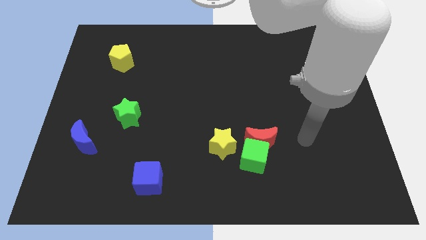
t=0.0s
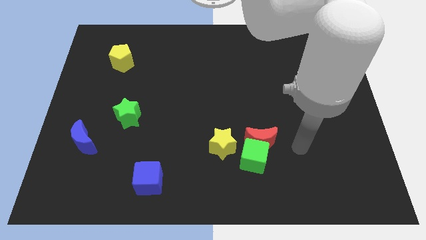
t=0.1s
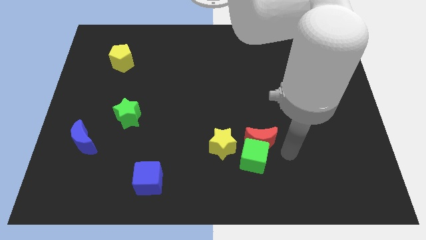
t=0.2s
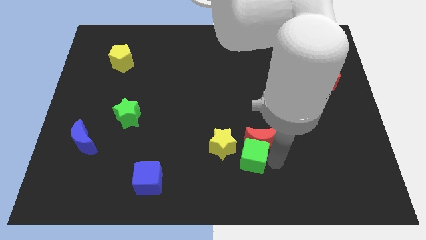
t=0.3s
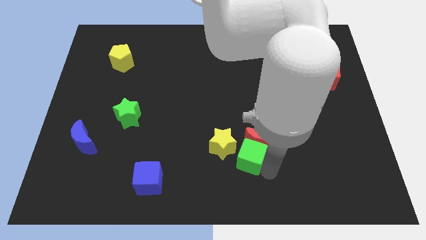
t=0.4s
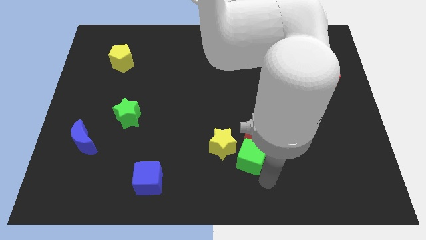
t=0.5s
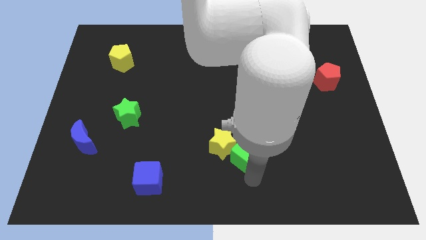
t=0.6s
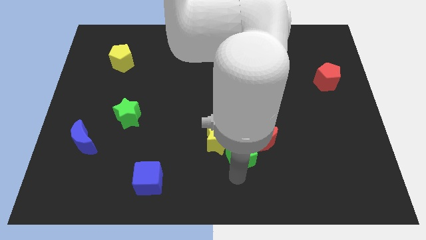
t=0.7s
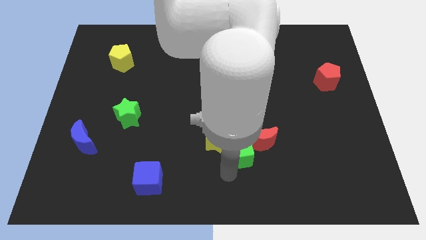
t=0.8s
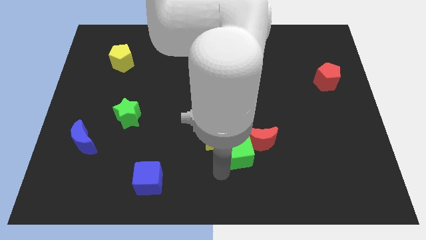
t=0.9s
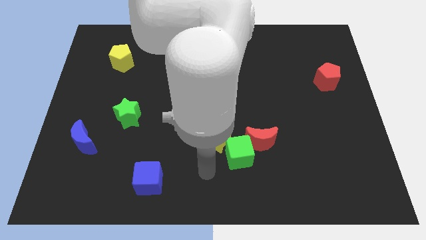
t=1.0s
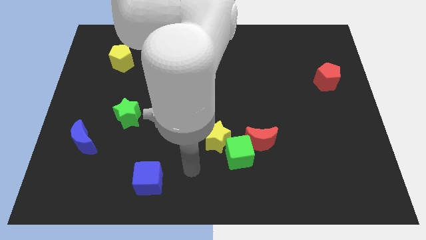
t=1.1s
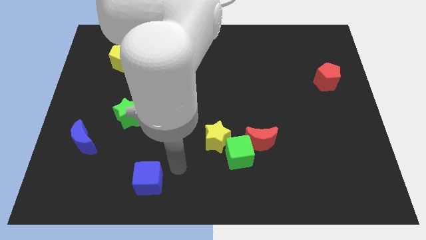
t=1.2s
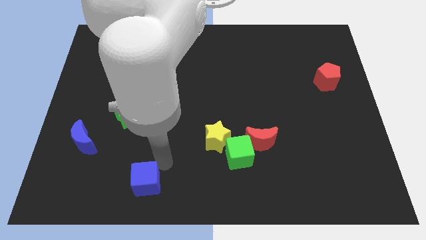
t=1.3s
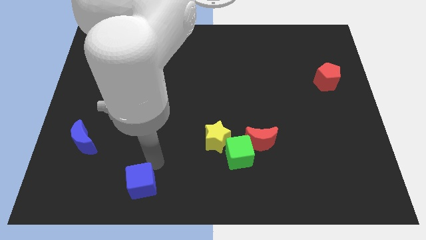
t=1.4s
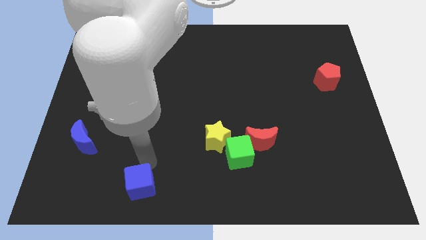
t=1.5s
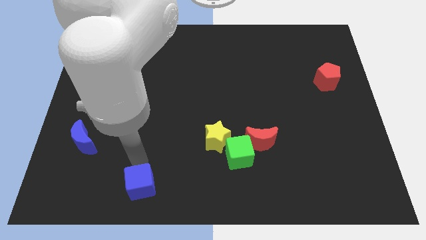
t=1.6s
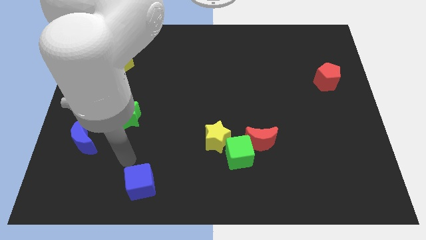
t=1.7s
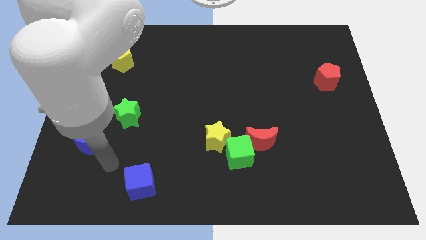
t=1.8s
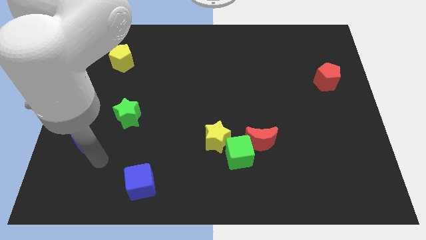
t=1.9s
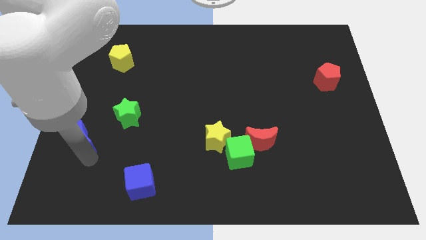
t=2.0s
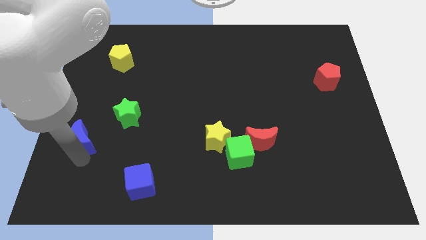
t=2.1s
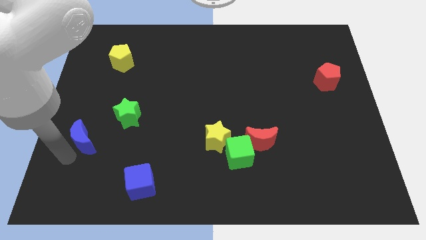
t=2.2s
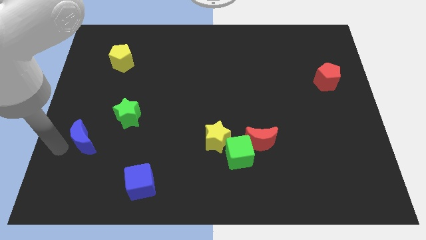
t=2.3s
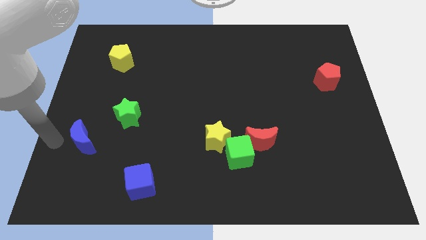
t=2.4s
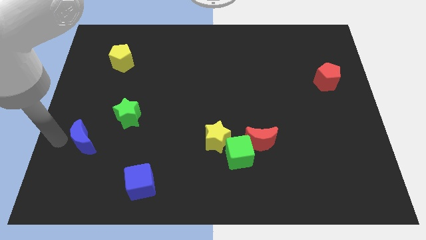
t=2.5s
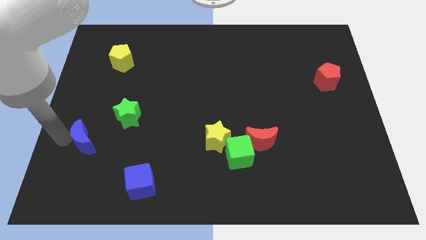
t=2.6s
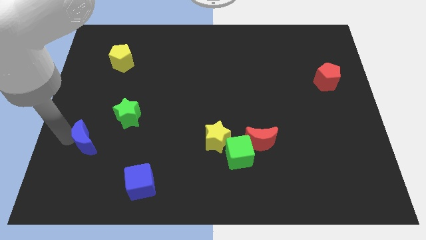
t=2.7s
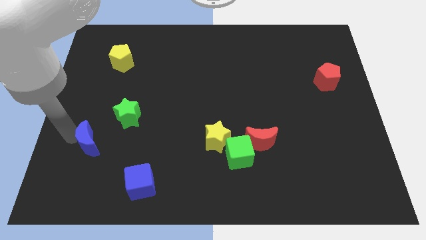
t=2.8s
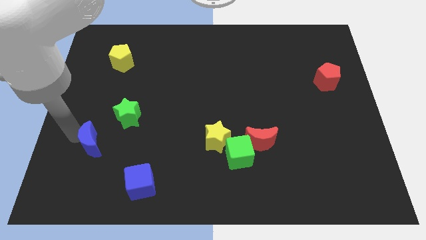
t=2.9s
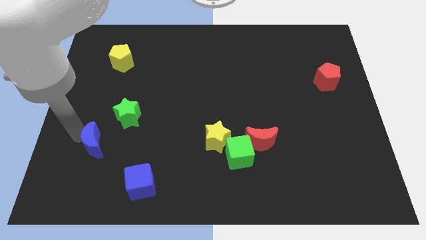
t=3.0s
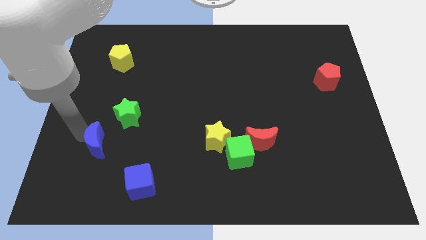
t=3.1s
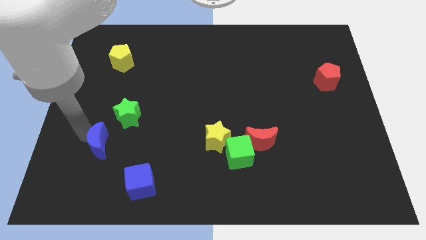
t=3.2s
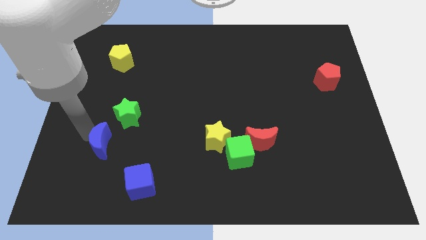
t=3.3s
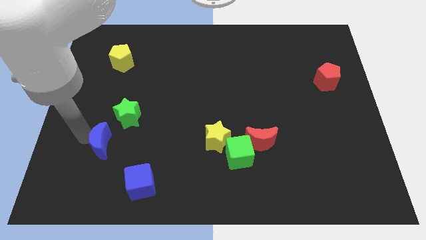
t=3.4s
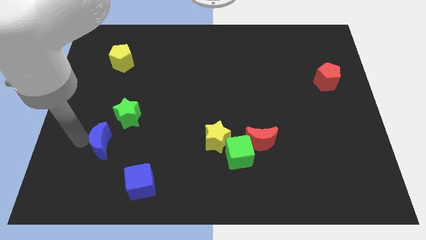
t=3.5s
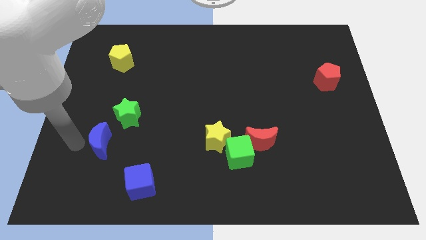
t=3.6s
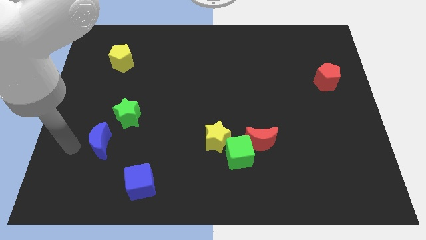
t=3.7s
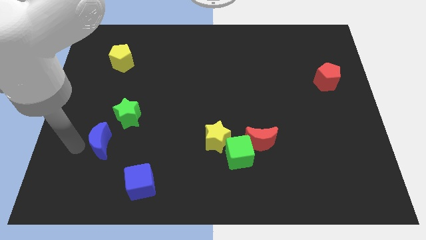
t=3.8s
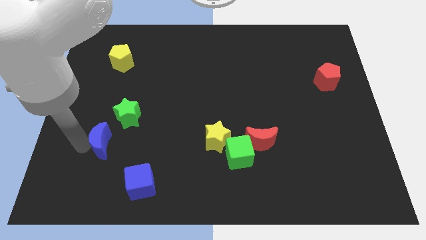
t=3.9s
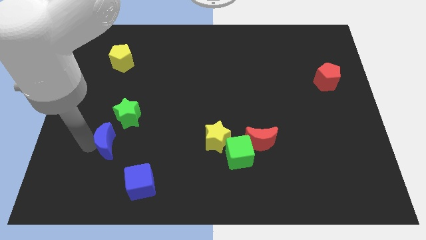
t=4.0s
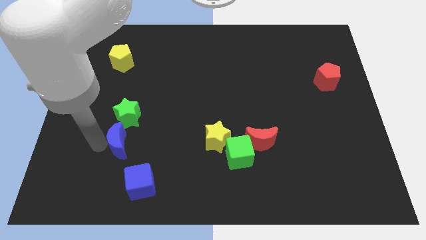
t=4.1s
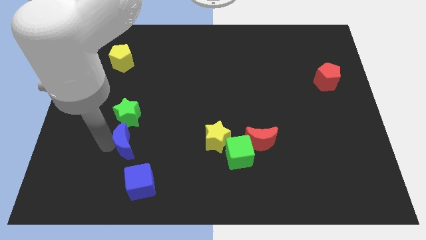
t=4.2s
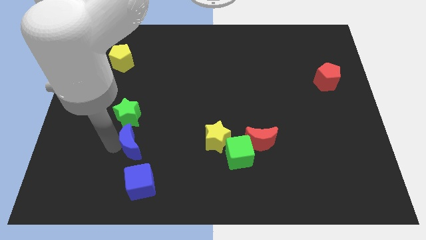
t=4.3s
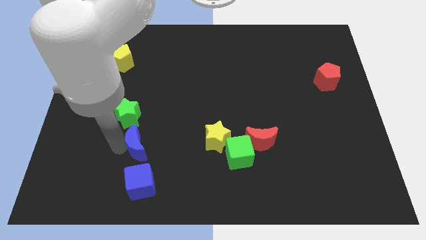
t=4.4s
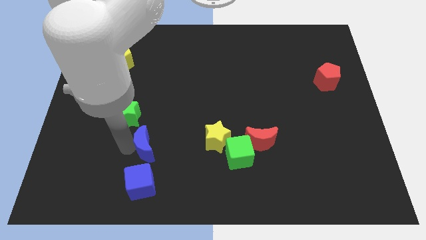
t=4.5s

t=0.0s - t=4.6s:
move the blue moon left of the yellow star

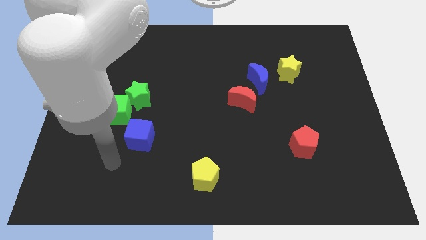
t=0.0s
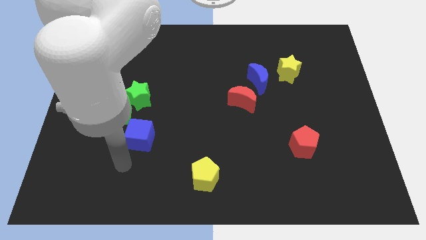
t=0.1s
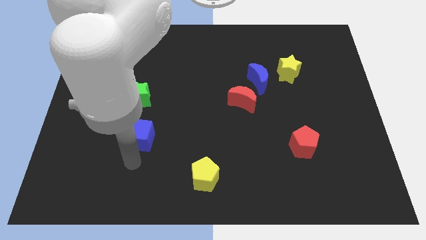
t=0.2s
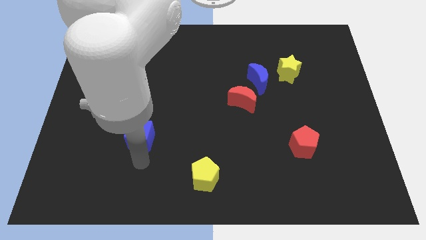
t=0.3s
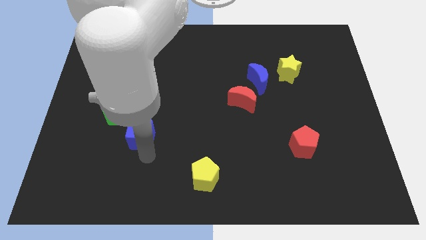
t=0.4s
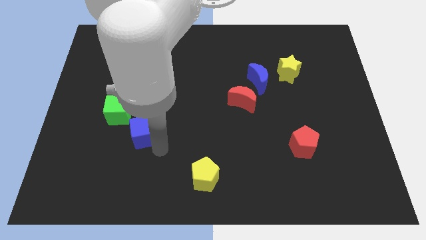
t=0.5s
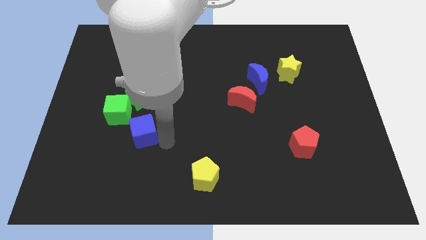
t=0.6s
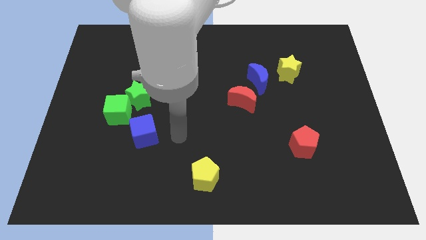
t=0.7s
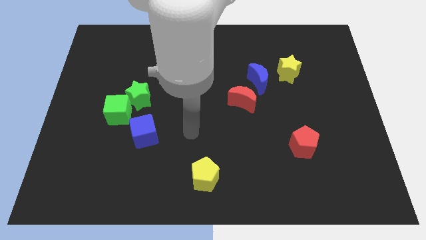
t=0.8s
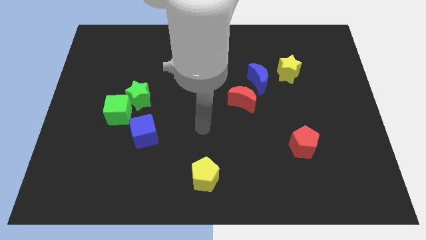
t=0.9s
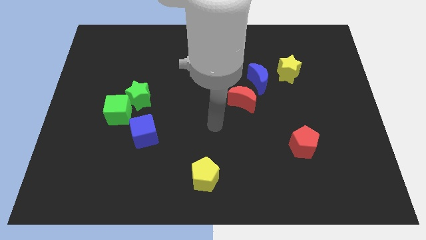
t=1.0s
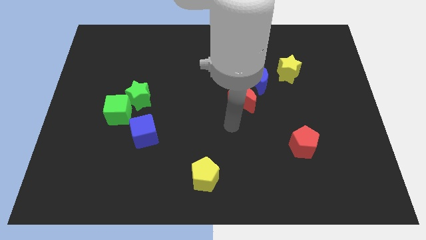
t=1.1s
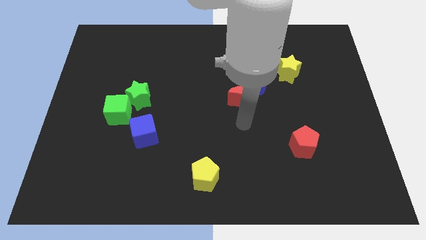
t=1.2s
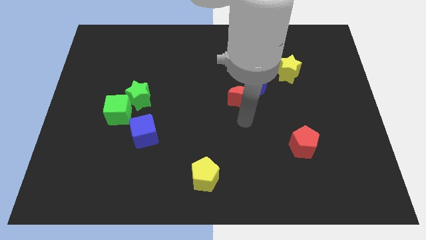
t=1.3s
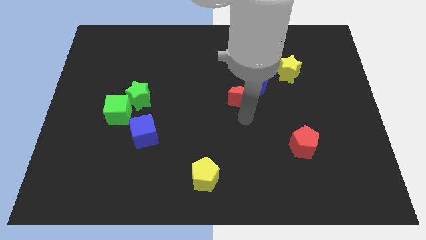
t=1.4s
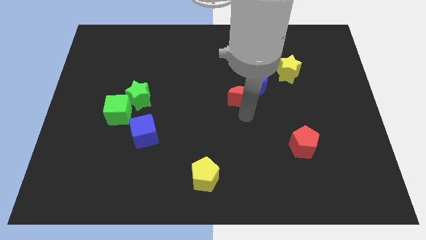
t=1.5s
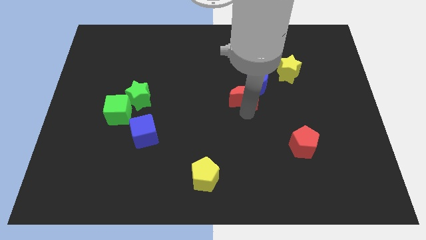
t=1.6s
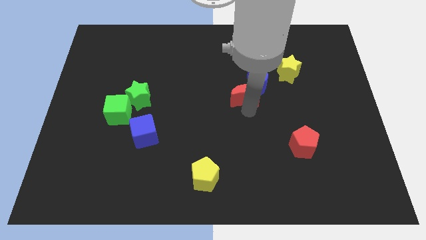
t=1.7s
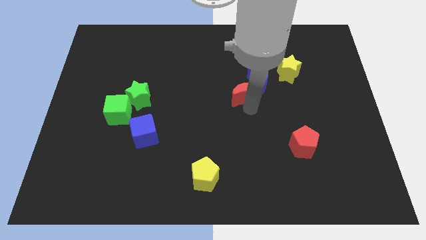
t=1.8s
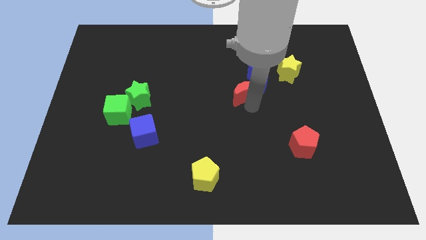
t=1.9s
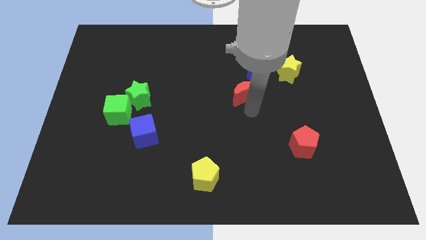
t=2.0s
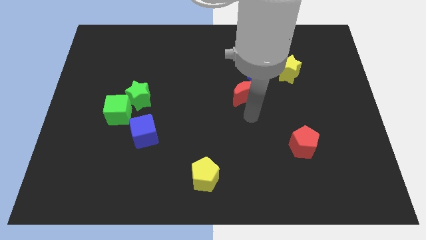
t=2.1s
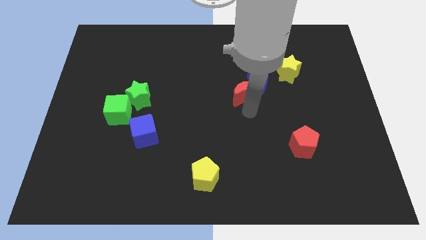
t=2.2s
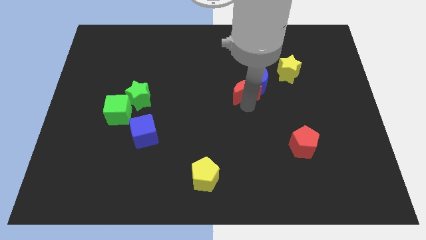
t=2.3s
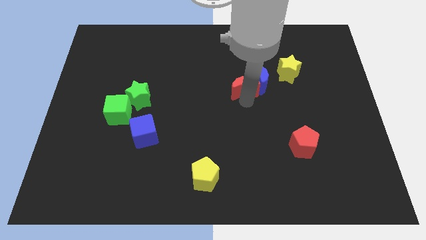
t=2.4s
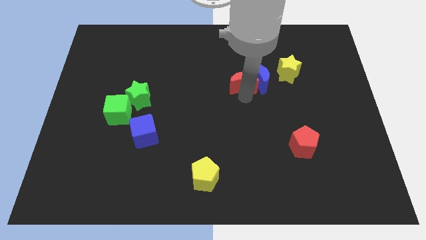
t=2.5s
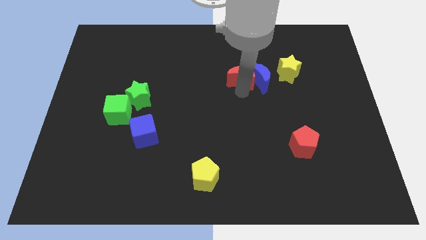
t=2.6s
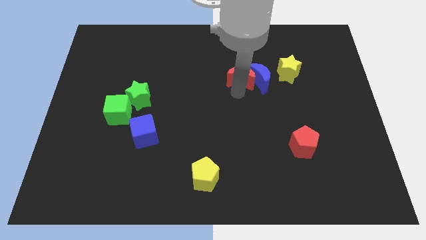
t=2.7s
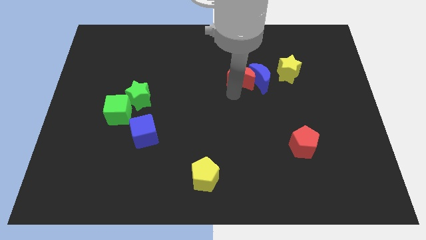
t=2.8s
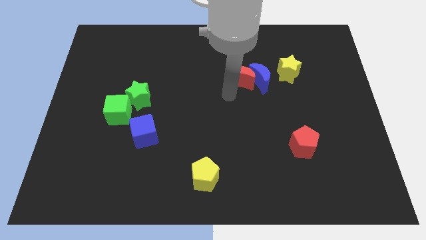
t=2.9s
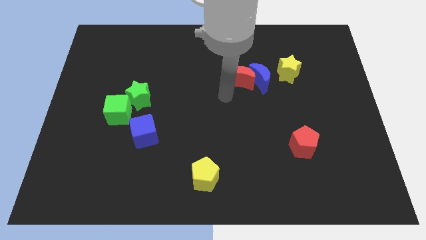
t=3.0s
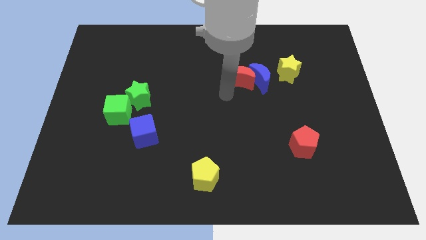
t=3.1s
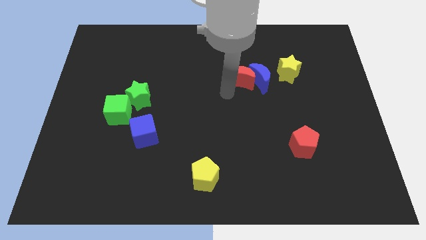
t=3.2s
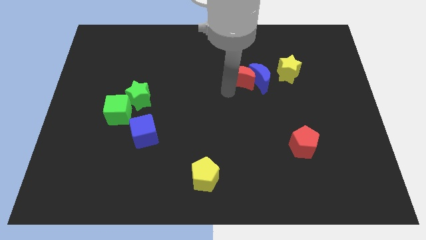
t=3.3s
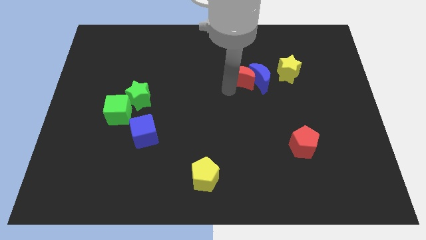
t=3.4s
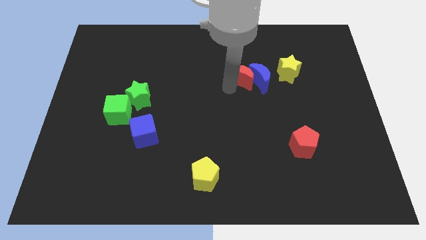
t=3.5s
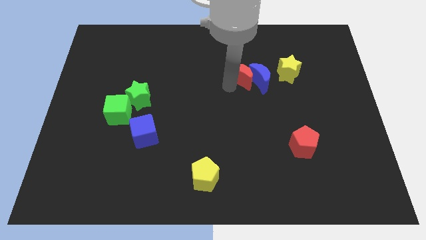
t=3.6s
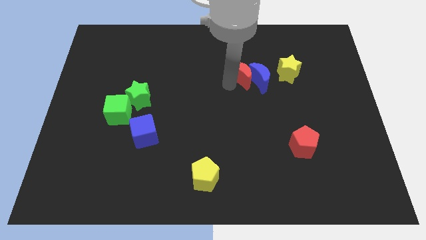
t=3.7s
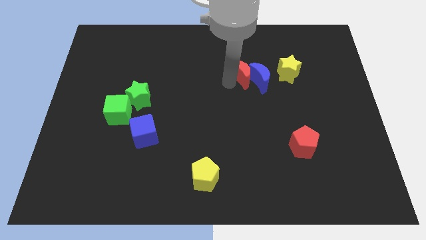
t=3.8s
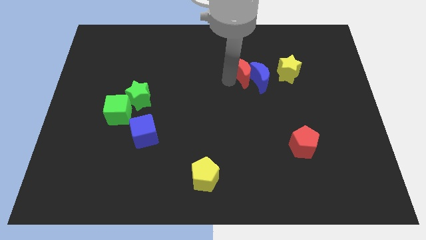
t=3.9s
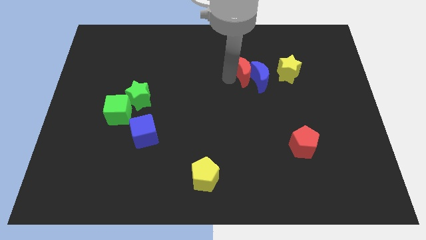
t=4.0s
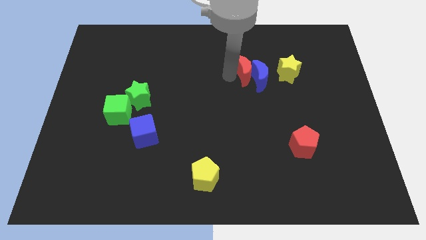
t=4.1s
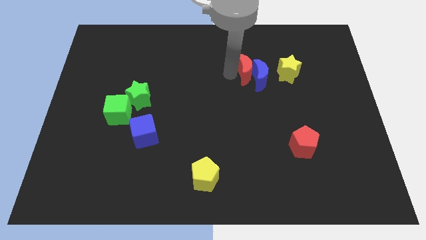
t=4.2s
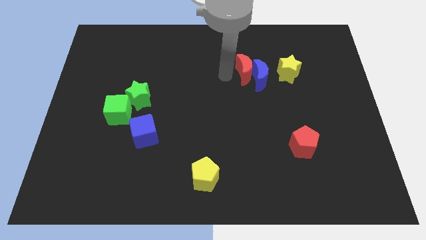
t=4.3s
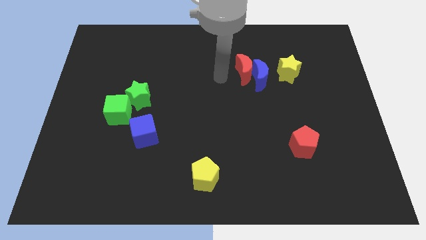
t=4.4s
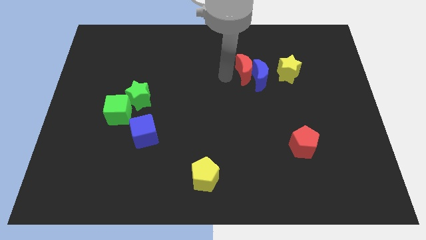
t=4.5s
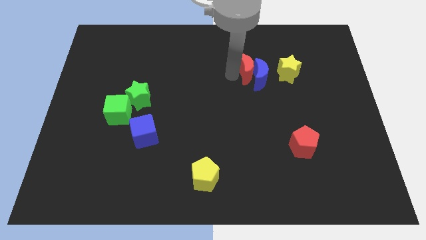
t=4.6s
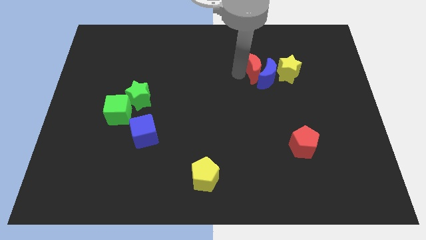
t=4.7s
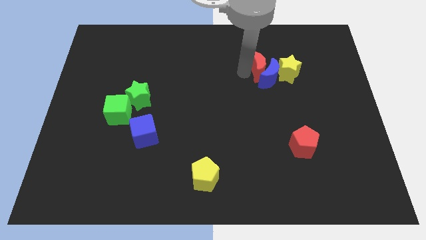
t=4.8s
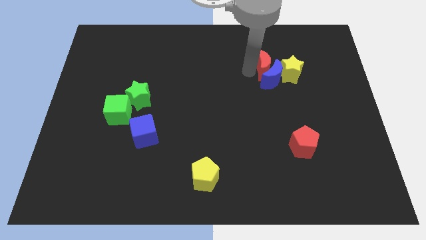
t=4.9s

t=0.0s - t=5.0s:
put the red moon diagonally up and to the right of the blue moon
